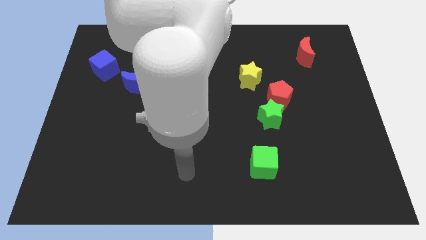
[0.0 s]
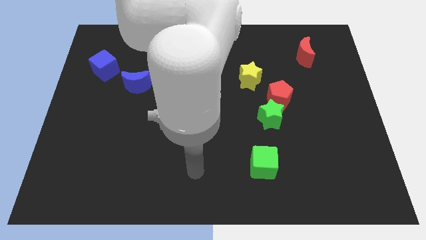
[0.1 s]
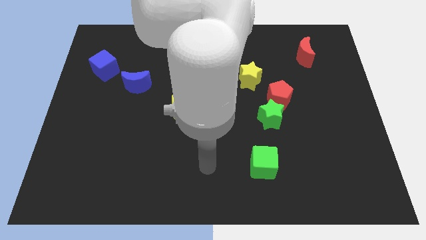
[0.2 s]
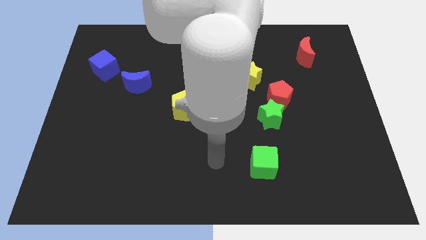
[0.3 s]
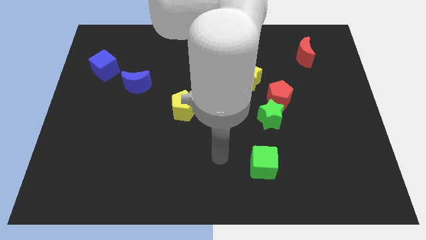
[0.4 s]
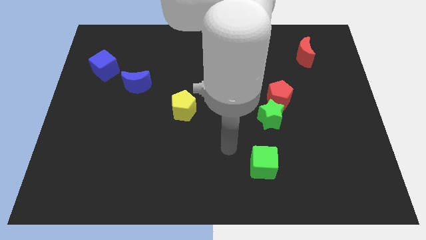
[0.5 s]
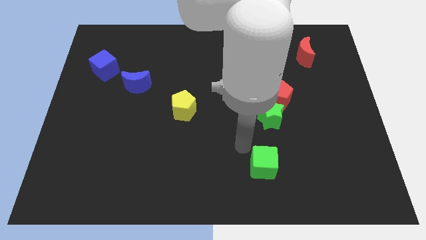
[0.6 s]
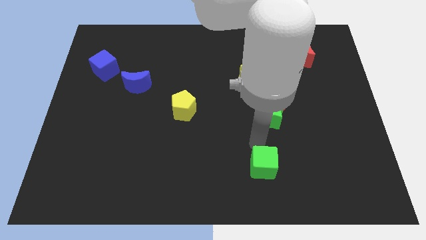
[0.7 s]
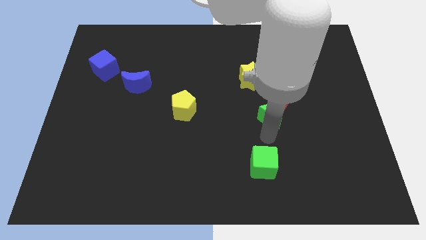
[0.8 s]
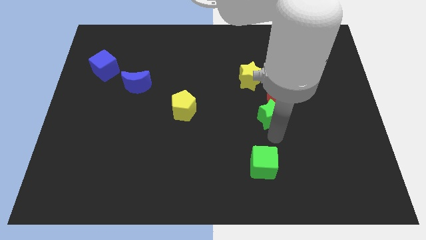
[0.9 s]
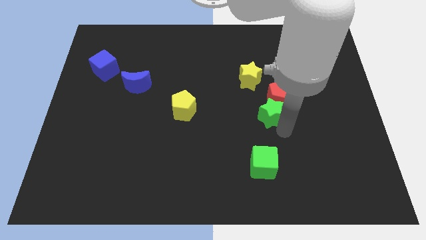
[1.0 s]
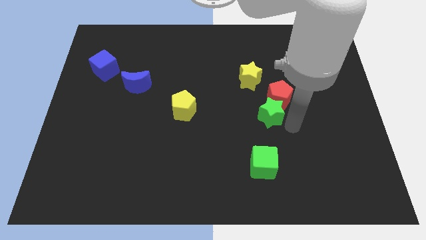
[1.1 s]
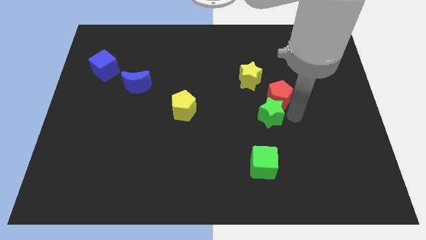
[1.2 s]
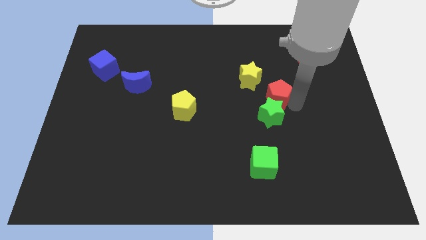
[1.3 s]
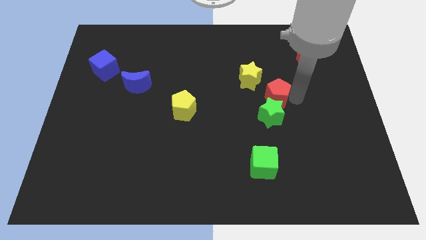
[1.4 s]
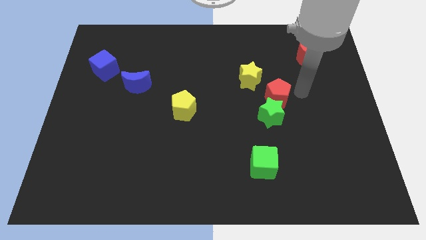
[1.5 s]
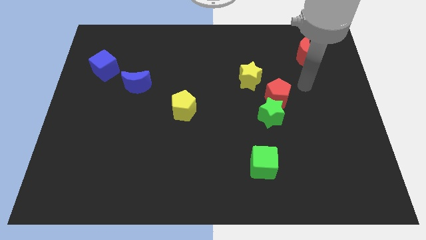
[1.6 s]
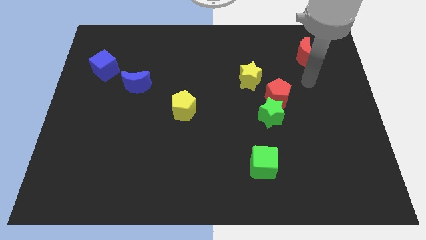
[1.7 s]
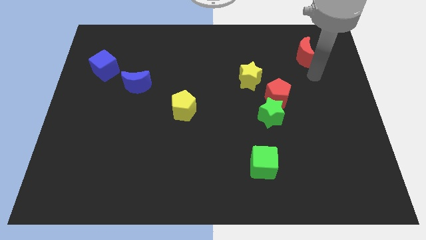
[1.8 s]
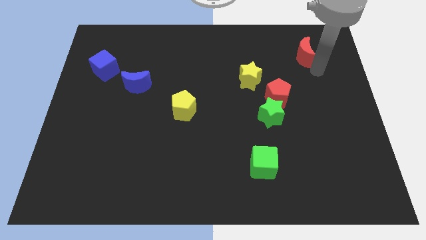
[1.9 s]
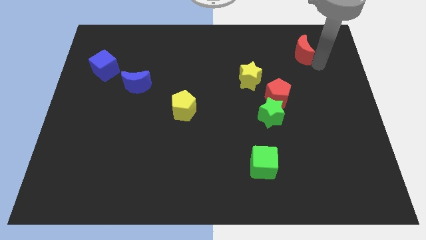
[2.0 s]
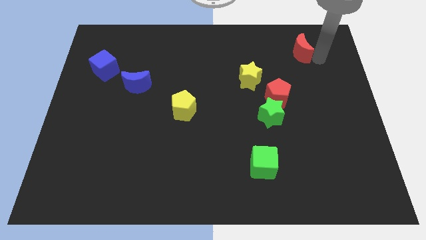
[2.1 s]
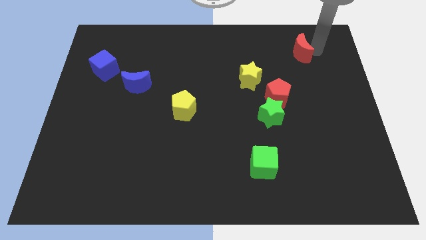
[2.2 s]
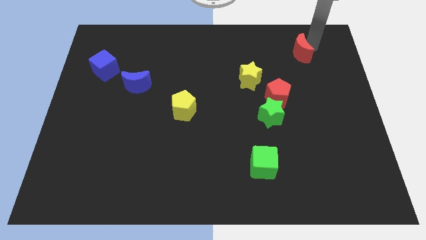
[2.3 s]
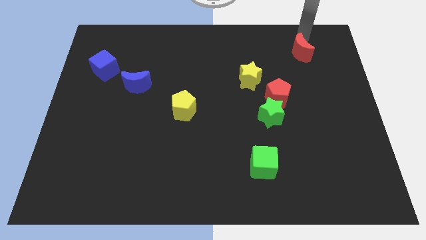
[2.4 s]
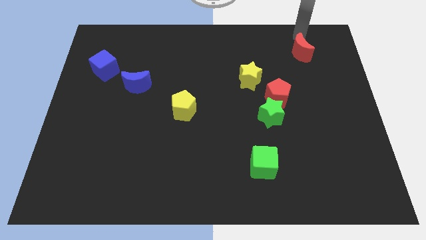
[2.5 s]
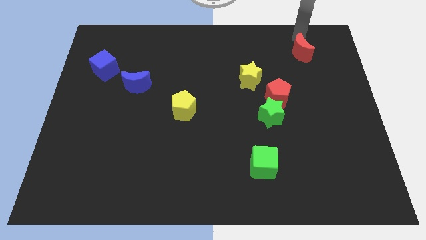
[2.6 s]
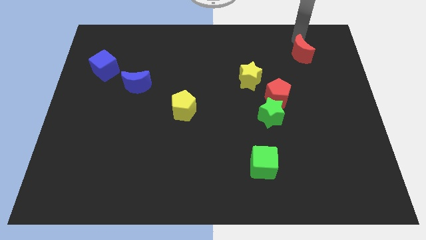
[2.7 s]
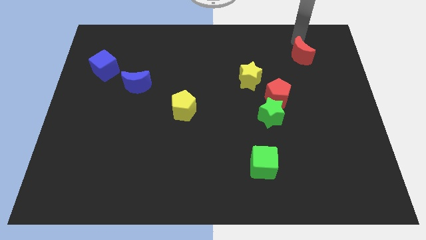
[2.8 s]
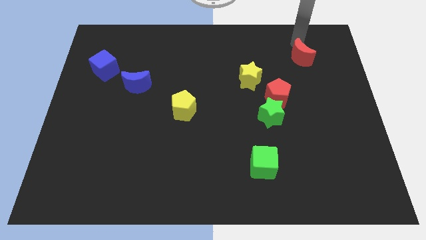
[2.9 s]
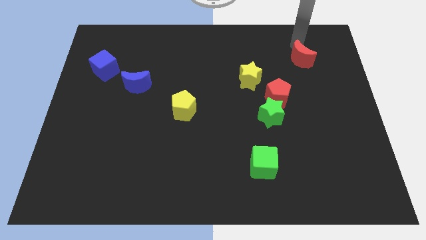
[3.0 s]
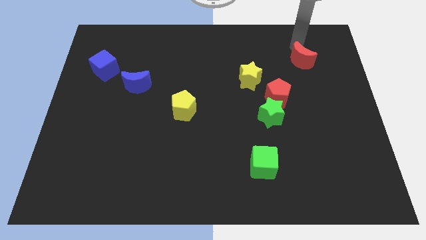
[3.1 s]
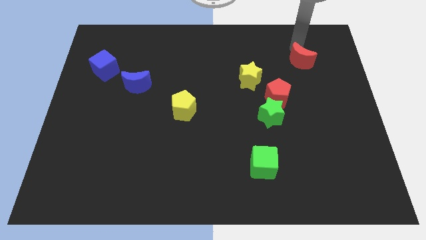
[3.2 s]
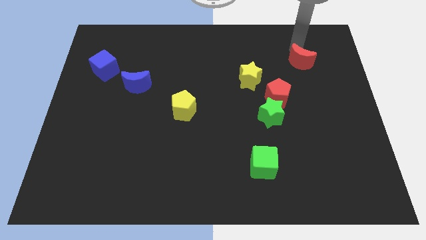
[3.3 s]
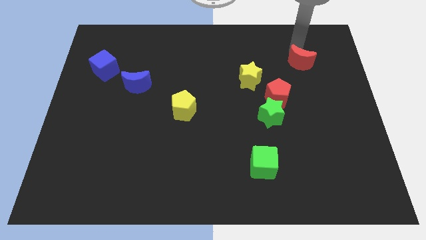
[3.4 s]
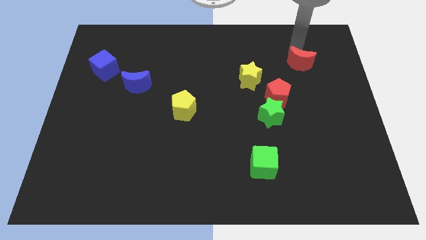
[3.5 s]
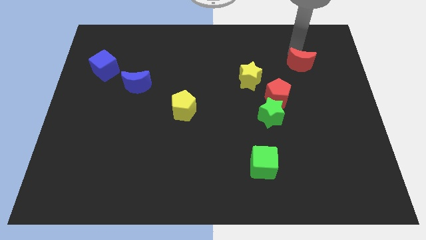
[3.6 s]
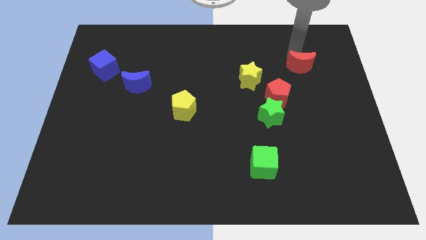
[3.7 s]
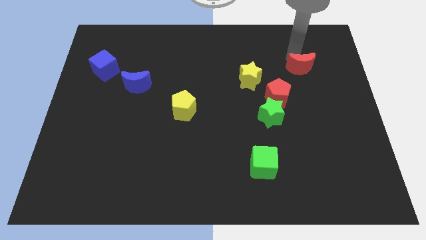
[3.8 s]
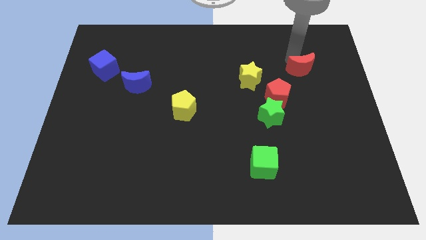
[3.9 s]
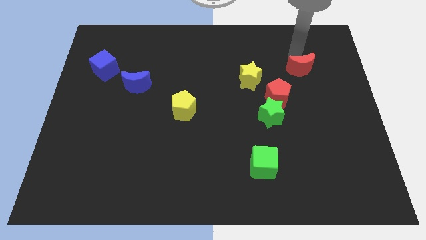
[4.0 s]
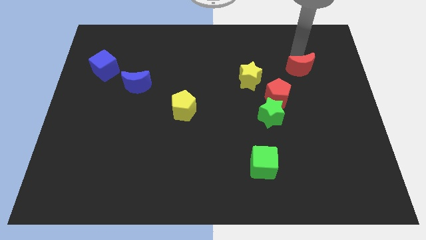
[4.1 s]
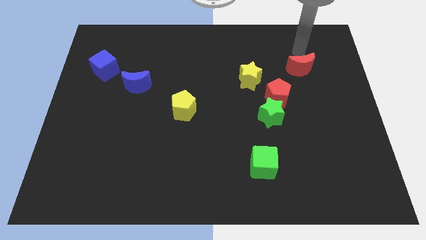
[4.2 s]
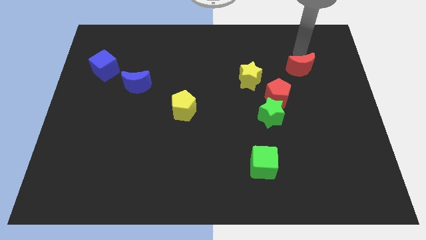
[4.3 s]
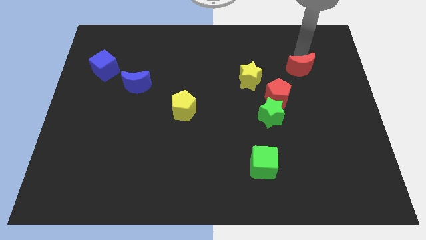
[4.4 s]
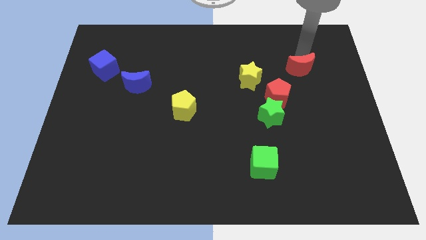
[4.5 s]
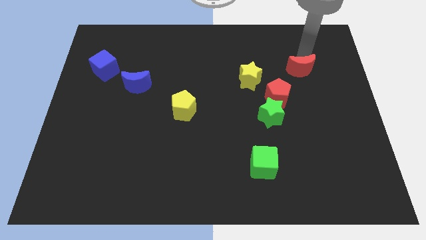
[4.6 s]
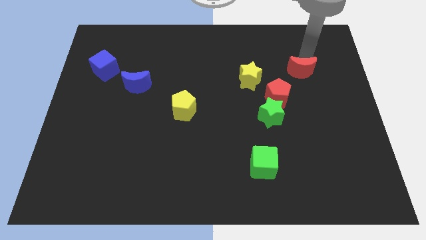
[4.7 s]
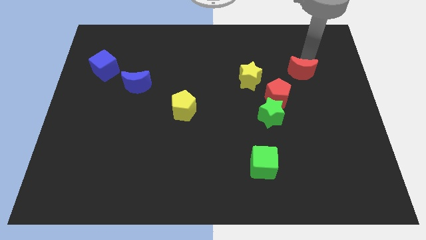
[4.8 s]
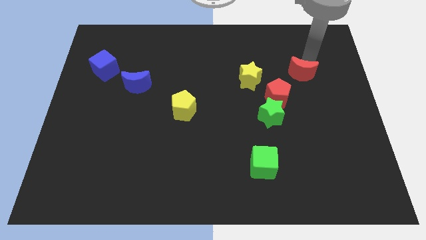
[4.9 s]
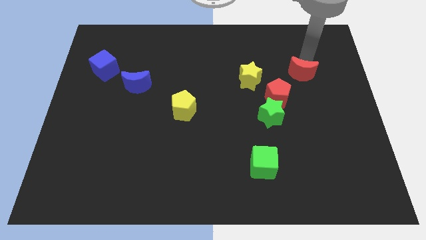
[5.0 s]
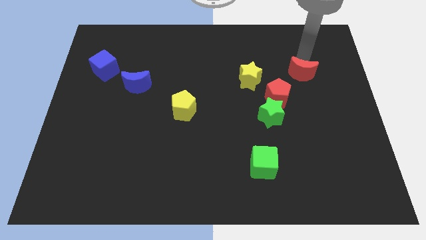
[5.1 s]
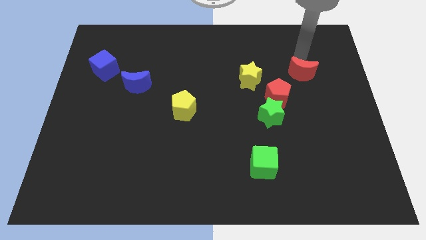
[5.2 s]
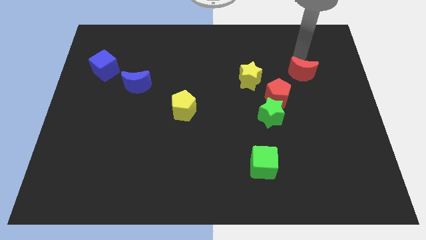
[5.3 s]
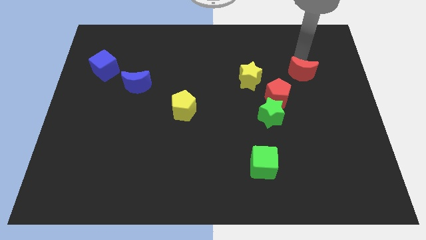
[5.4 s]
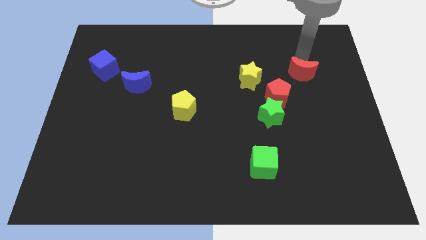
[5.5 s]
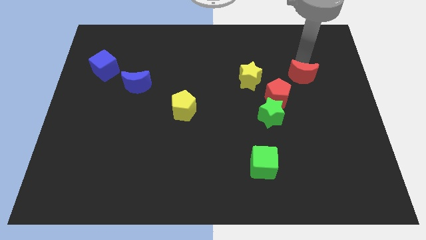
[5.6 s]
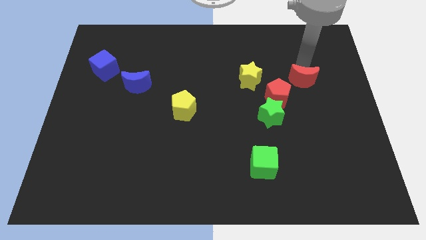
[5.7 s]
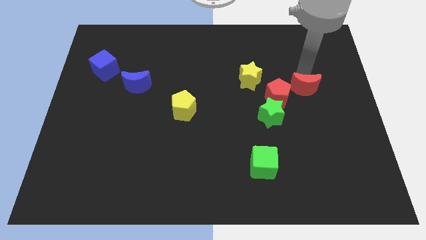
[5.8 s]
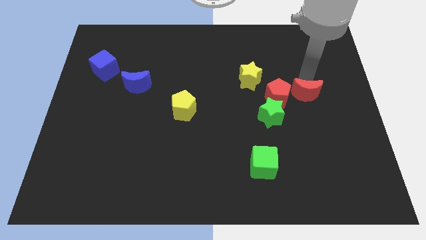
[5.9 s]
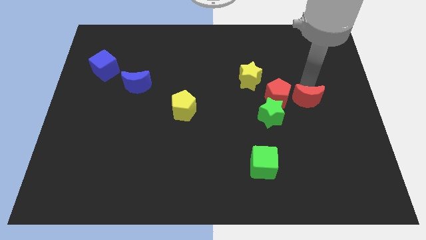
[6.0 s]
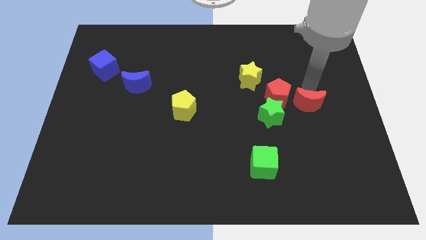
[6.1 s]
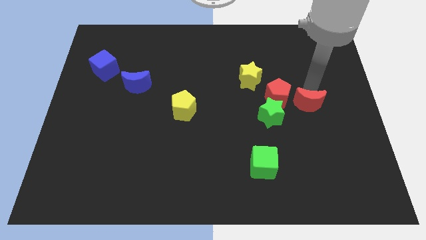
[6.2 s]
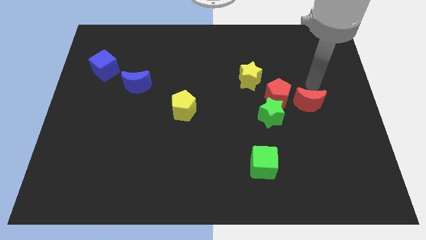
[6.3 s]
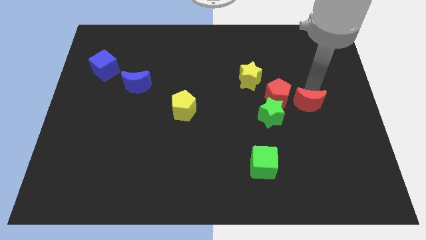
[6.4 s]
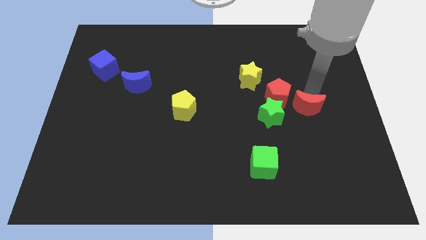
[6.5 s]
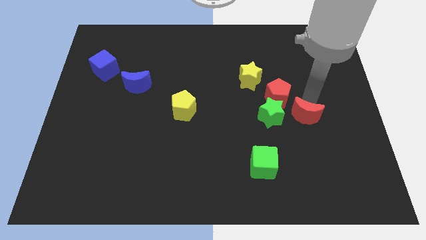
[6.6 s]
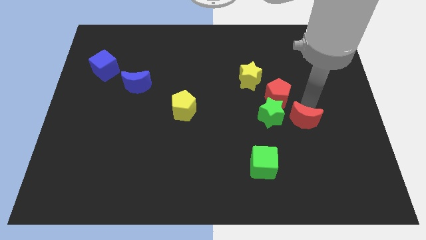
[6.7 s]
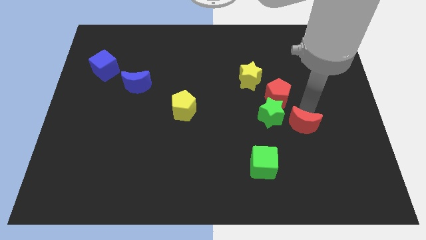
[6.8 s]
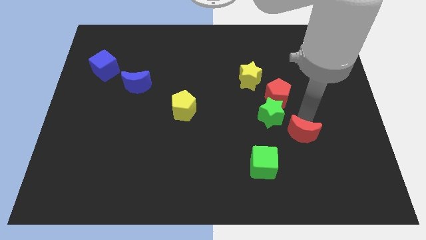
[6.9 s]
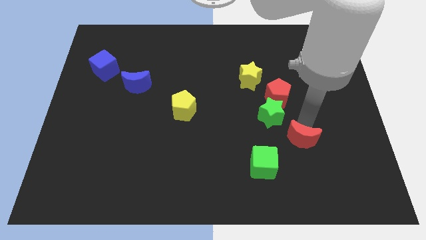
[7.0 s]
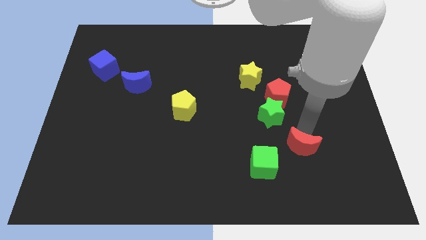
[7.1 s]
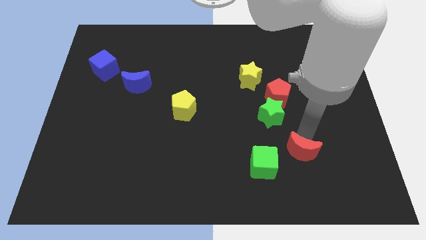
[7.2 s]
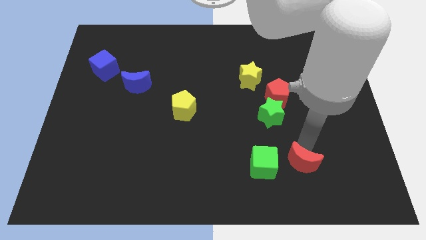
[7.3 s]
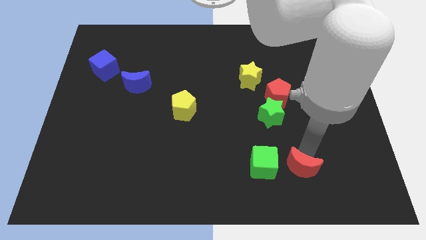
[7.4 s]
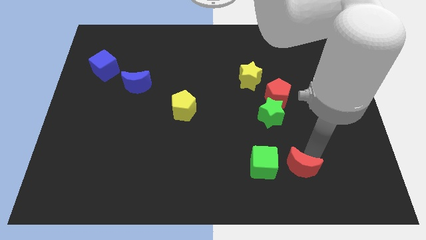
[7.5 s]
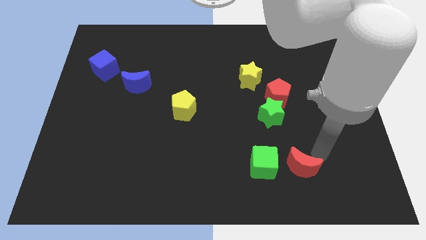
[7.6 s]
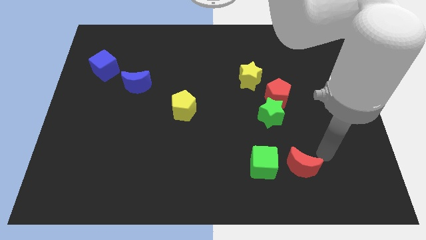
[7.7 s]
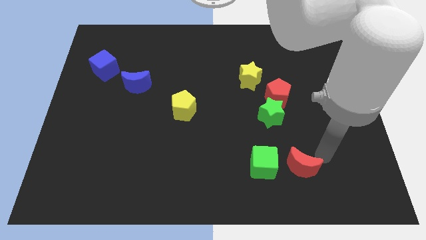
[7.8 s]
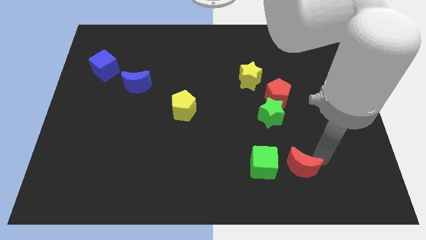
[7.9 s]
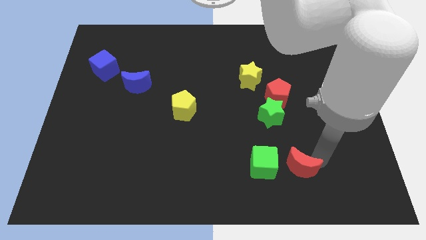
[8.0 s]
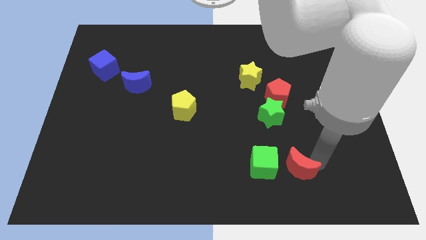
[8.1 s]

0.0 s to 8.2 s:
push the red moon below the green star
